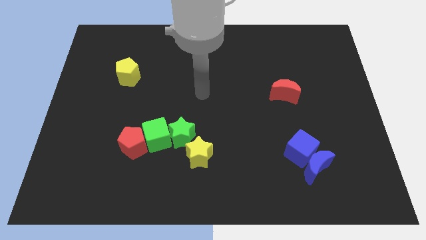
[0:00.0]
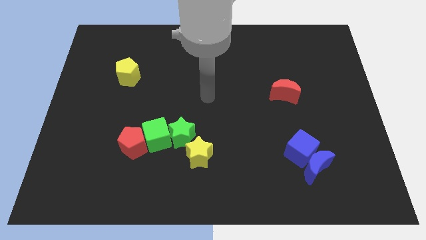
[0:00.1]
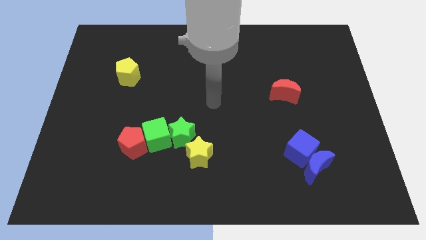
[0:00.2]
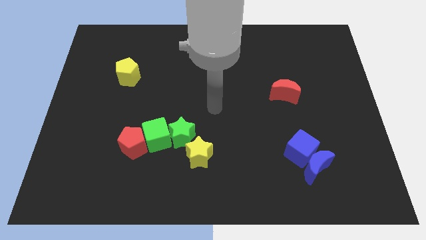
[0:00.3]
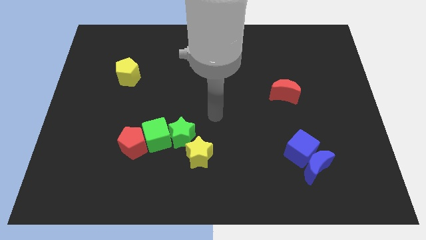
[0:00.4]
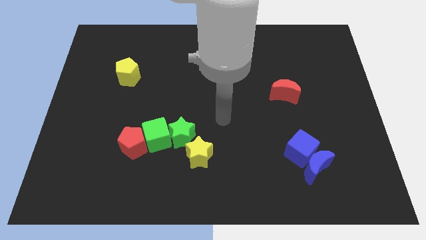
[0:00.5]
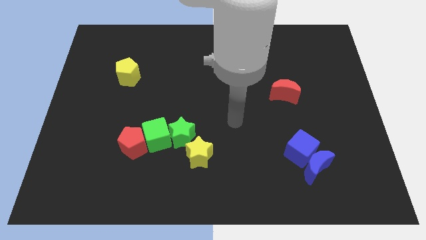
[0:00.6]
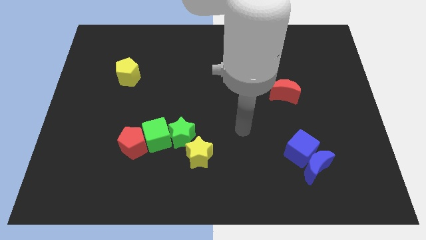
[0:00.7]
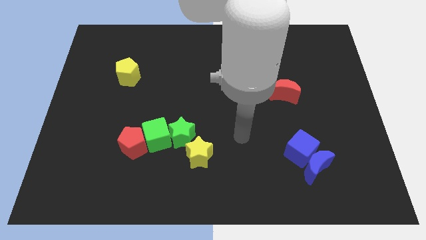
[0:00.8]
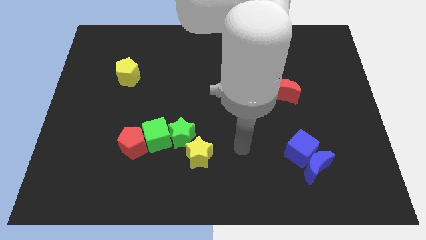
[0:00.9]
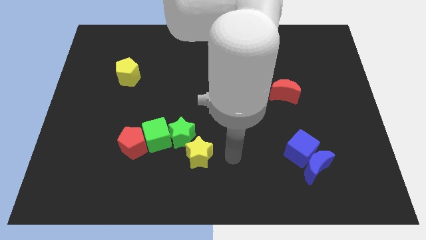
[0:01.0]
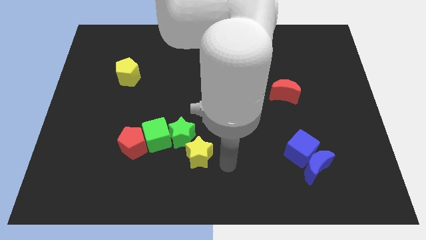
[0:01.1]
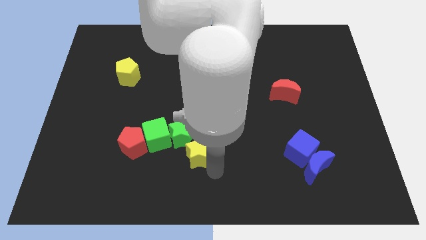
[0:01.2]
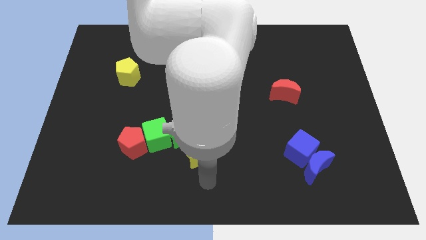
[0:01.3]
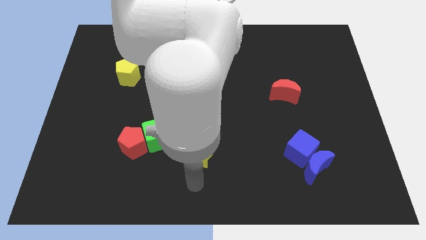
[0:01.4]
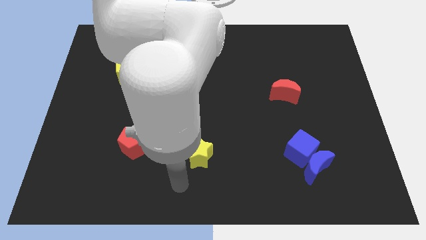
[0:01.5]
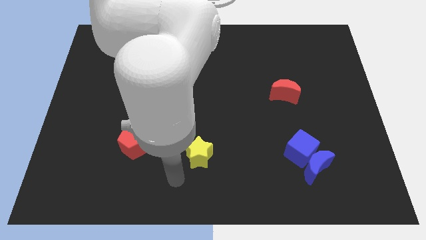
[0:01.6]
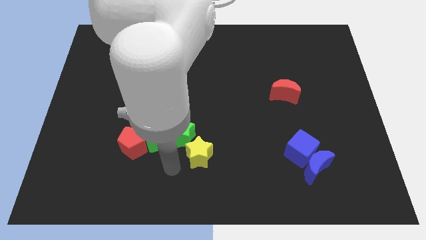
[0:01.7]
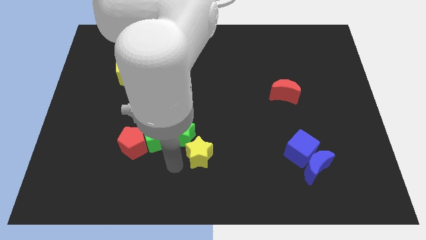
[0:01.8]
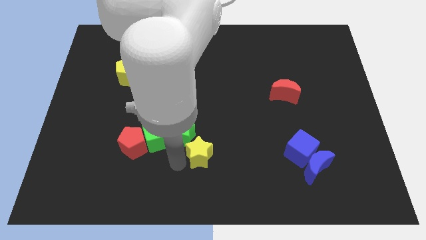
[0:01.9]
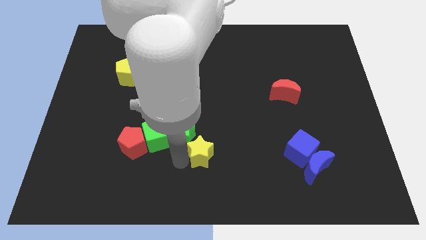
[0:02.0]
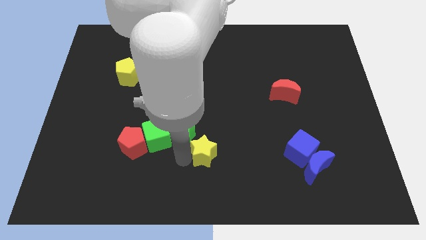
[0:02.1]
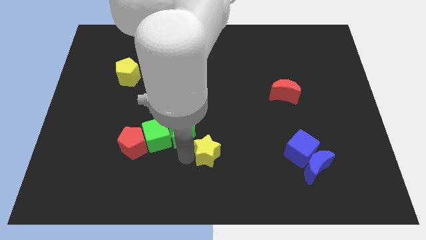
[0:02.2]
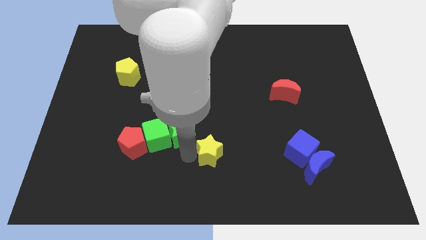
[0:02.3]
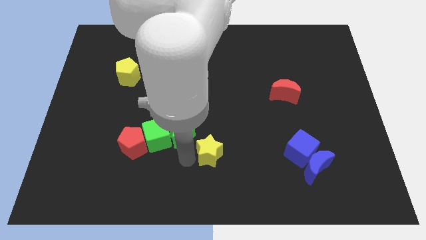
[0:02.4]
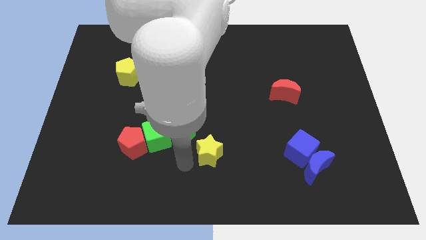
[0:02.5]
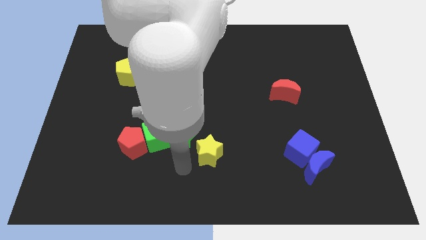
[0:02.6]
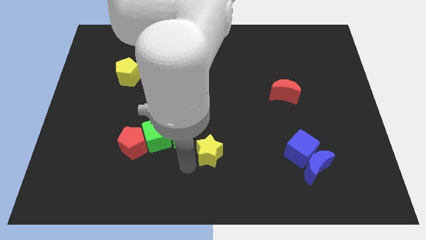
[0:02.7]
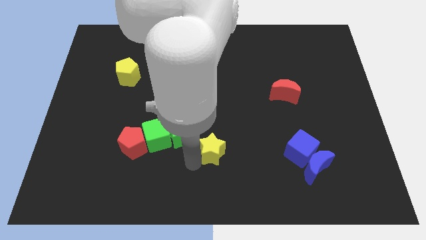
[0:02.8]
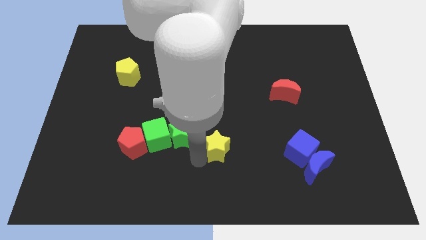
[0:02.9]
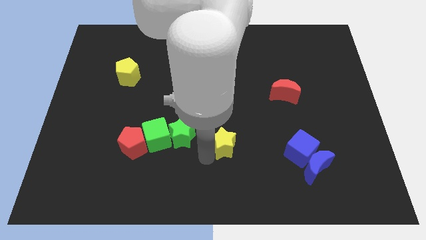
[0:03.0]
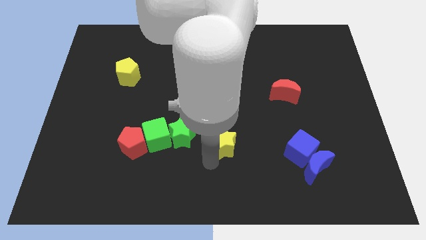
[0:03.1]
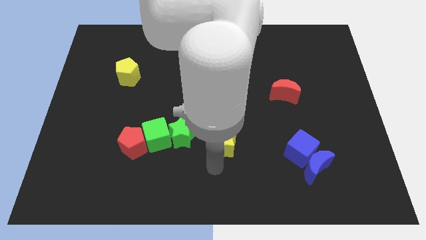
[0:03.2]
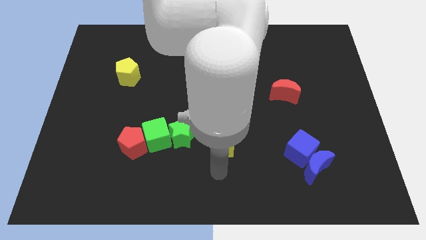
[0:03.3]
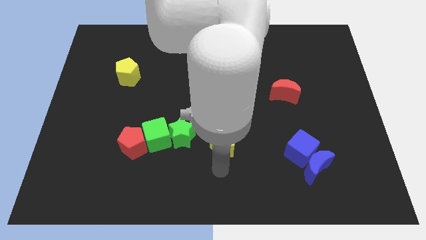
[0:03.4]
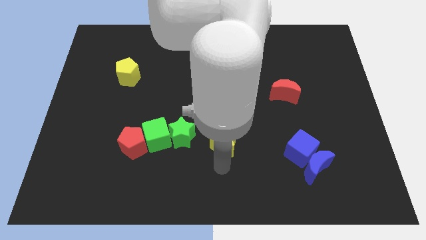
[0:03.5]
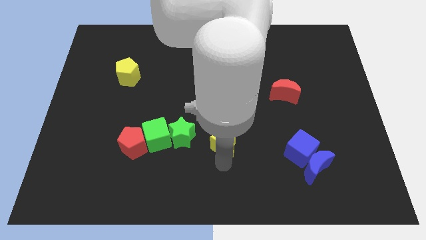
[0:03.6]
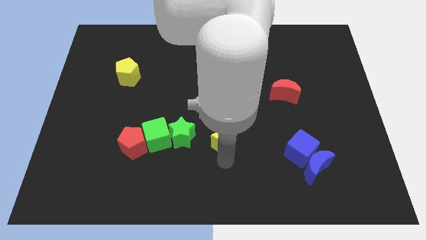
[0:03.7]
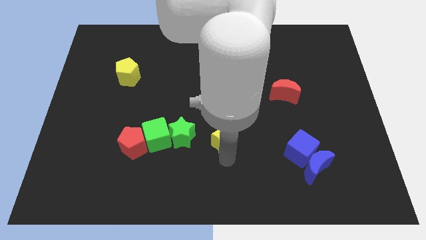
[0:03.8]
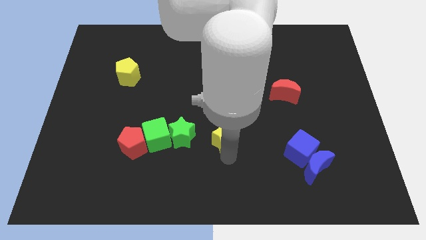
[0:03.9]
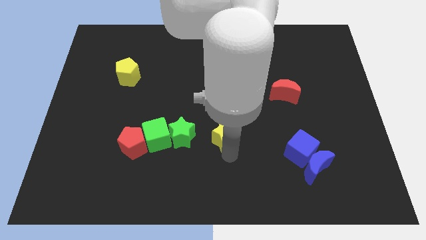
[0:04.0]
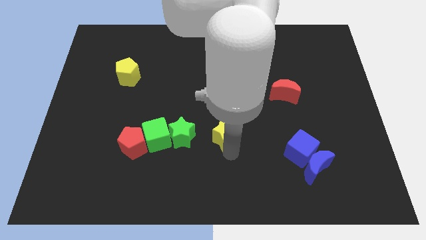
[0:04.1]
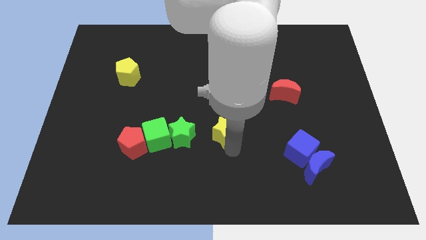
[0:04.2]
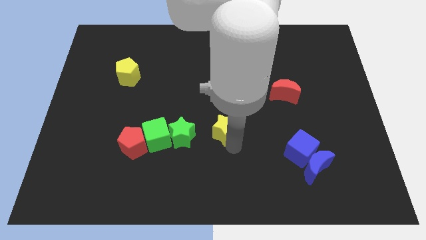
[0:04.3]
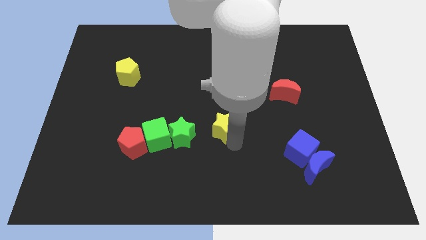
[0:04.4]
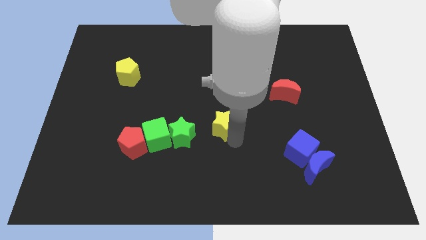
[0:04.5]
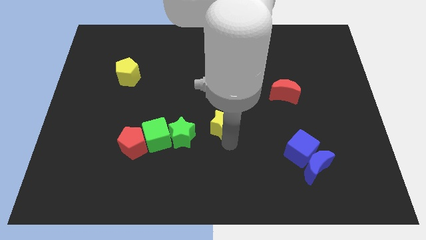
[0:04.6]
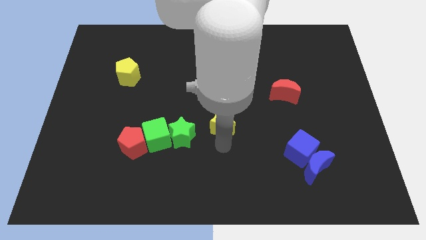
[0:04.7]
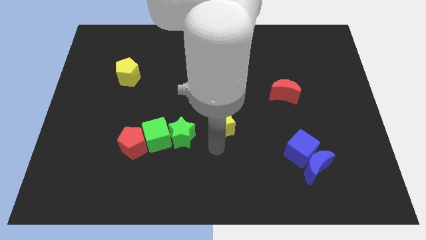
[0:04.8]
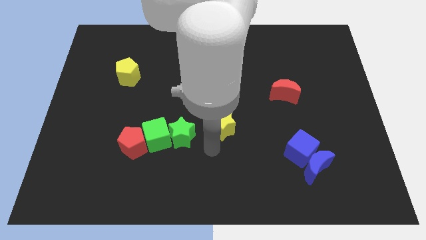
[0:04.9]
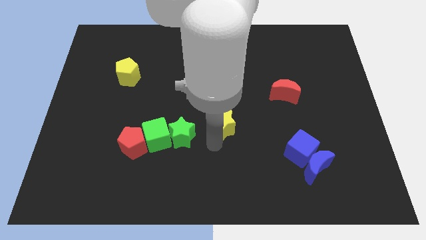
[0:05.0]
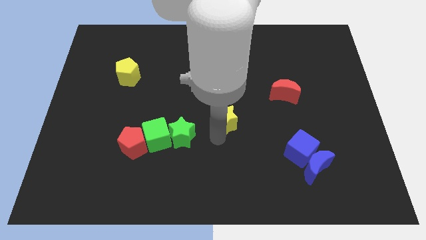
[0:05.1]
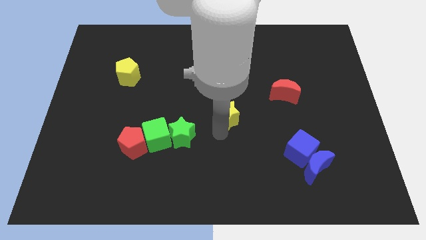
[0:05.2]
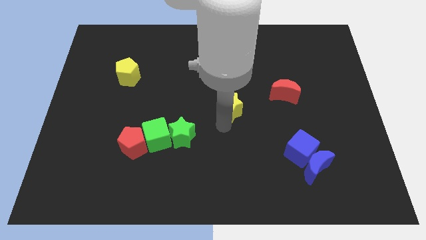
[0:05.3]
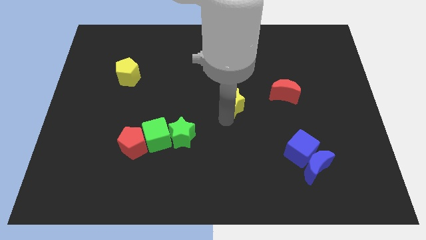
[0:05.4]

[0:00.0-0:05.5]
slide the yellow star just left of the red moon

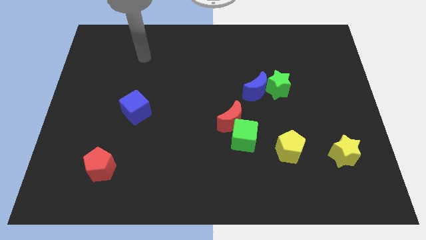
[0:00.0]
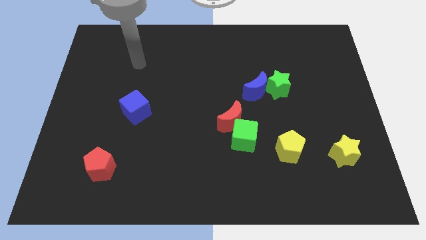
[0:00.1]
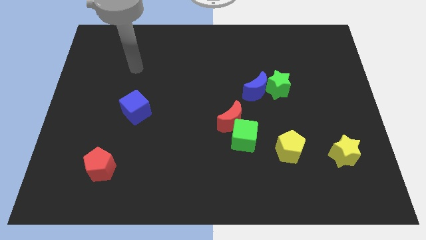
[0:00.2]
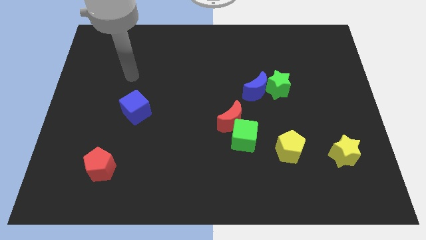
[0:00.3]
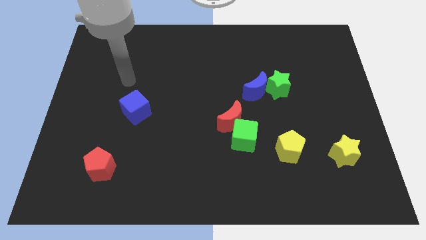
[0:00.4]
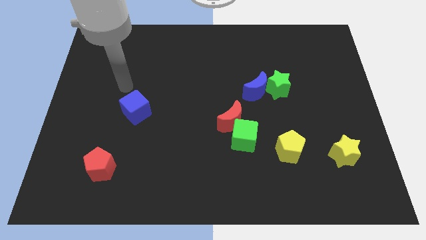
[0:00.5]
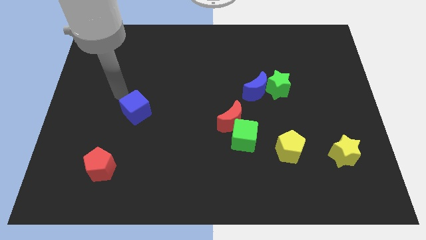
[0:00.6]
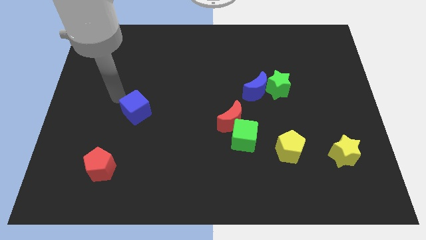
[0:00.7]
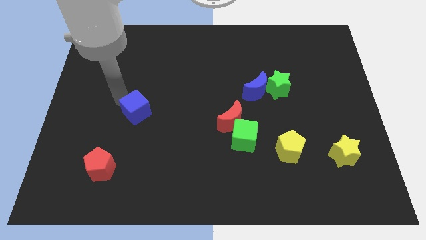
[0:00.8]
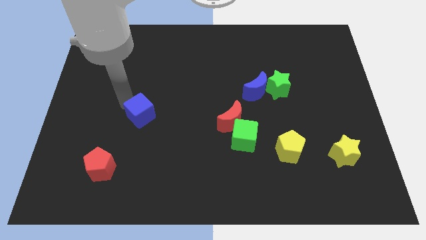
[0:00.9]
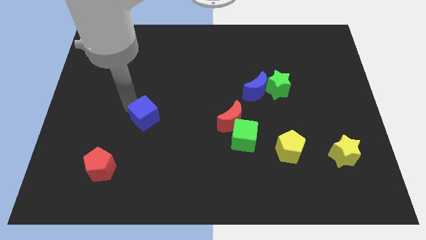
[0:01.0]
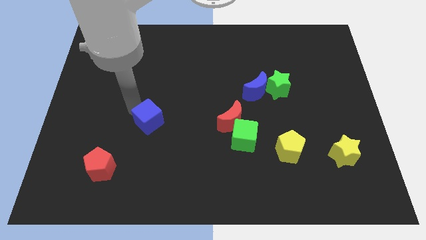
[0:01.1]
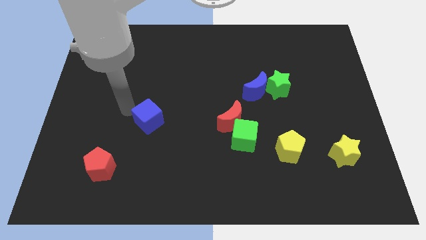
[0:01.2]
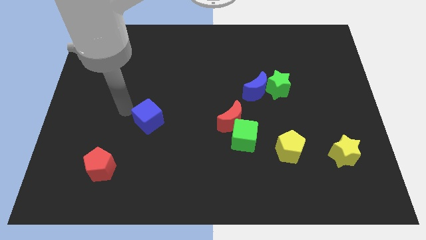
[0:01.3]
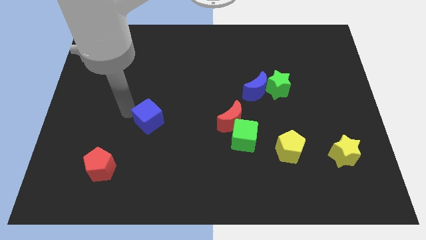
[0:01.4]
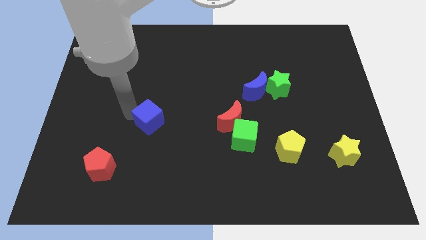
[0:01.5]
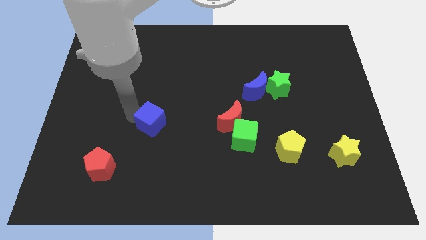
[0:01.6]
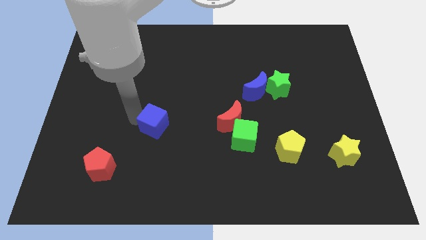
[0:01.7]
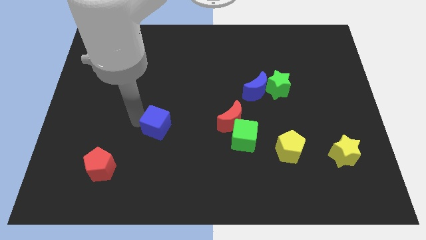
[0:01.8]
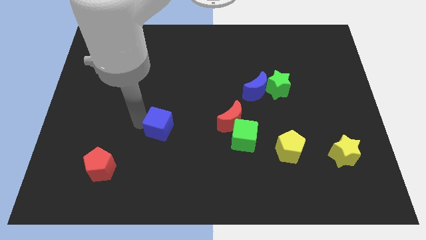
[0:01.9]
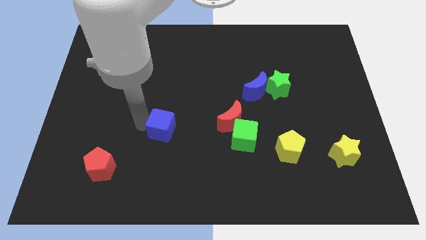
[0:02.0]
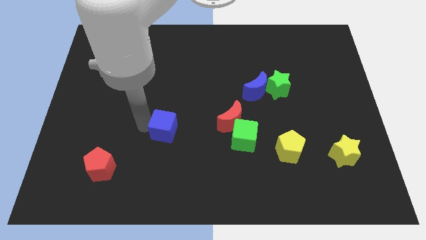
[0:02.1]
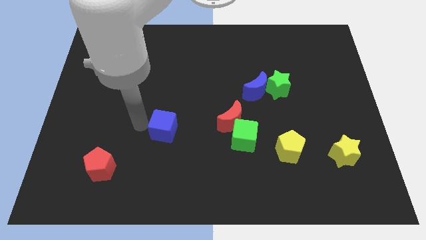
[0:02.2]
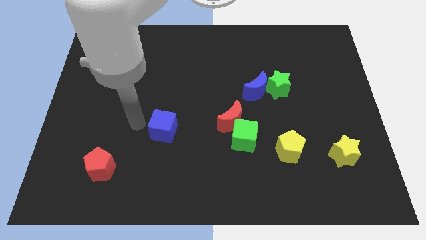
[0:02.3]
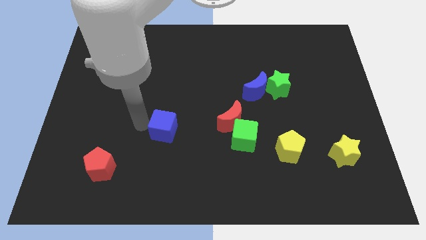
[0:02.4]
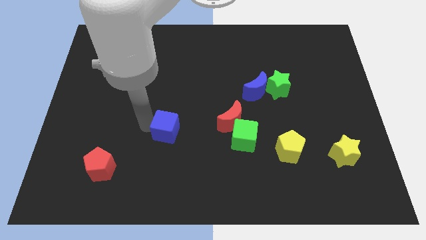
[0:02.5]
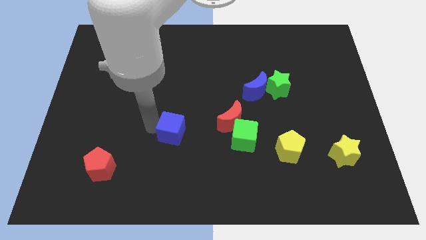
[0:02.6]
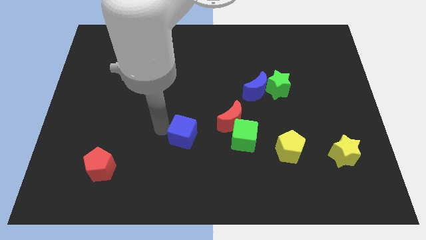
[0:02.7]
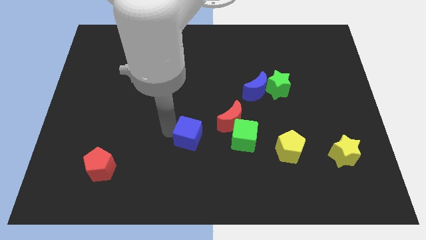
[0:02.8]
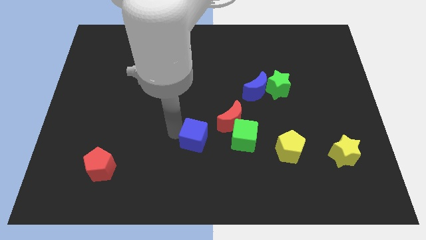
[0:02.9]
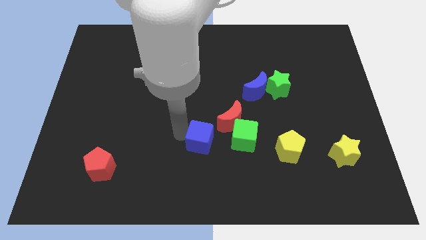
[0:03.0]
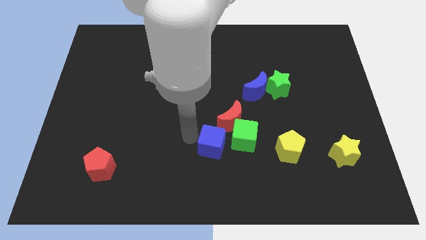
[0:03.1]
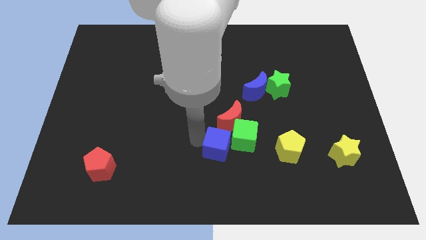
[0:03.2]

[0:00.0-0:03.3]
slide the blue cube to the left side of the yellow pentagon
